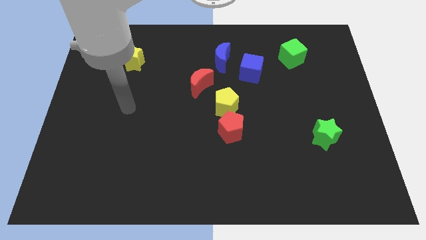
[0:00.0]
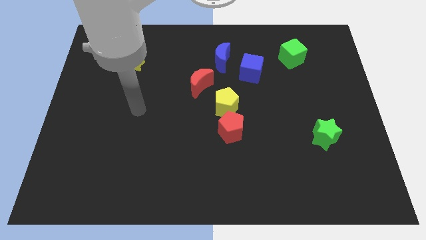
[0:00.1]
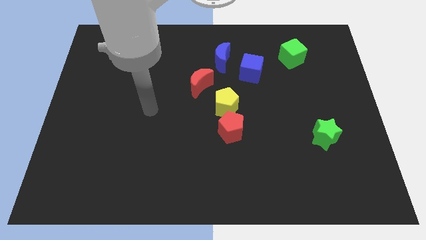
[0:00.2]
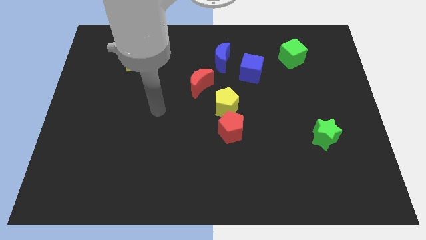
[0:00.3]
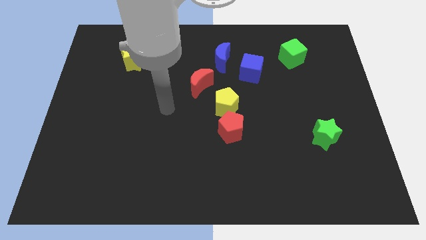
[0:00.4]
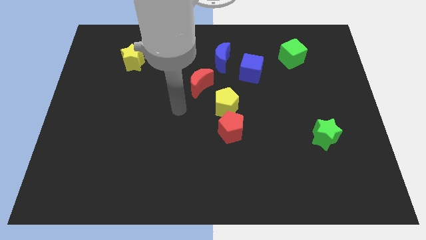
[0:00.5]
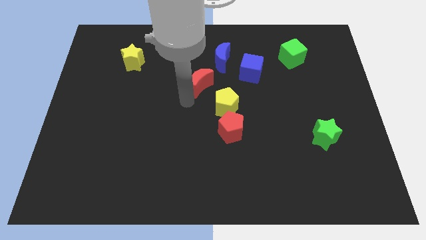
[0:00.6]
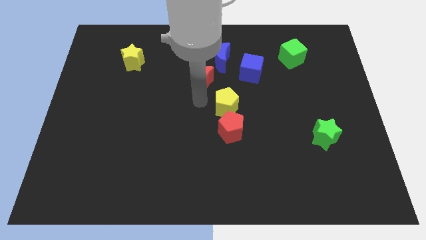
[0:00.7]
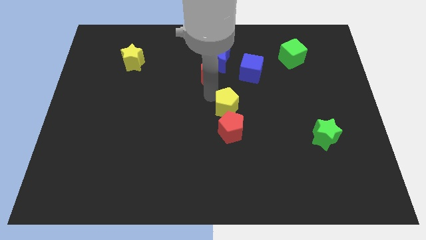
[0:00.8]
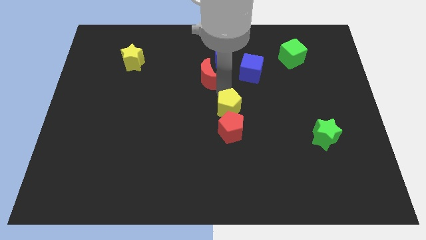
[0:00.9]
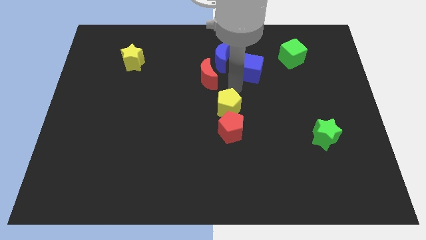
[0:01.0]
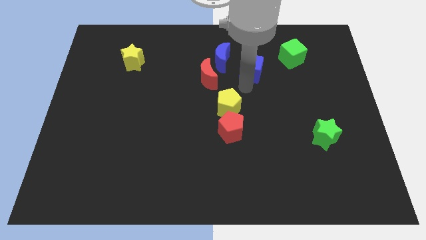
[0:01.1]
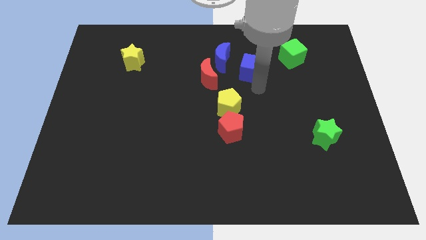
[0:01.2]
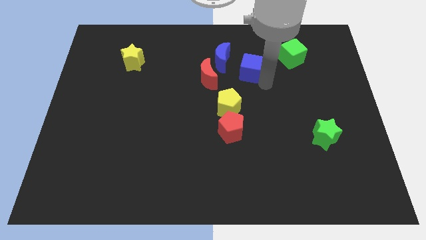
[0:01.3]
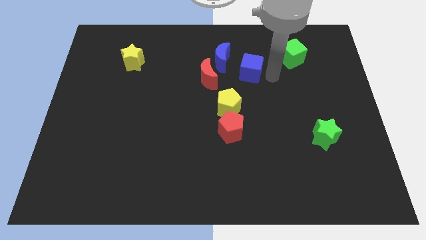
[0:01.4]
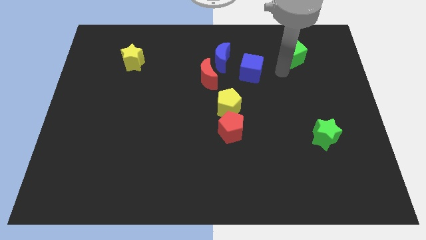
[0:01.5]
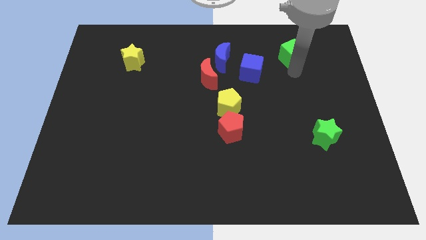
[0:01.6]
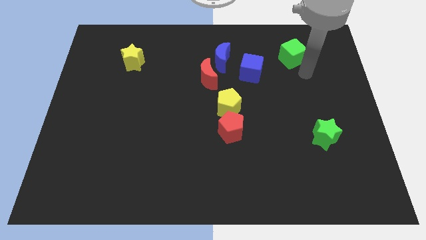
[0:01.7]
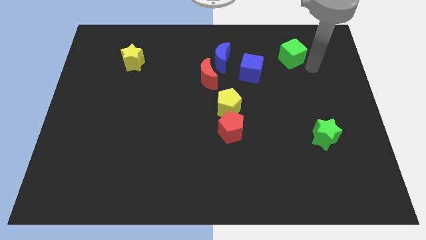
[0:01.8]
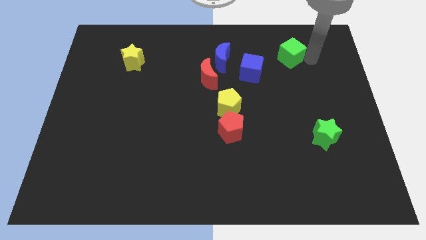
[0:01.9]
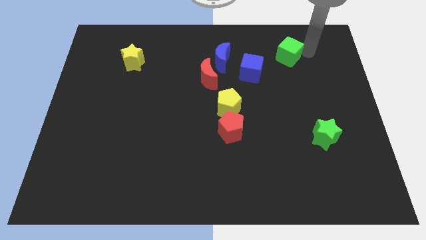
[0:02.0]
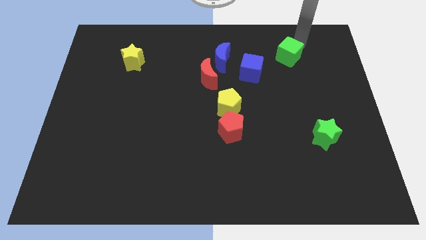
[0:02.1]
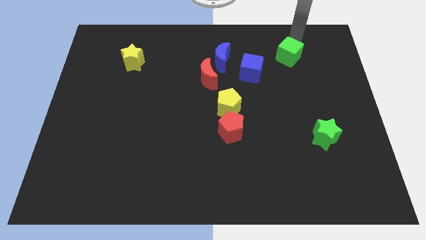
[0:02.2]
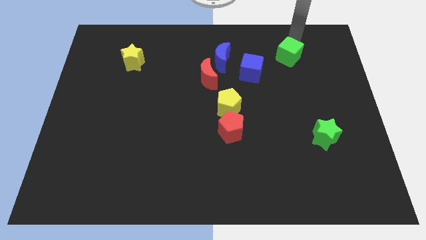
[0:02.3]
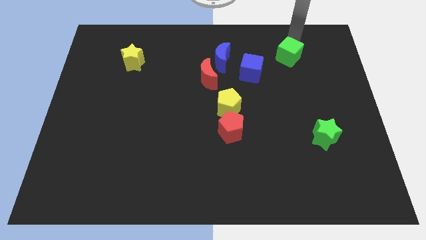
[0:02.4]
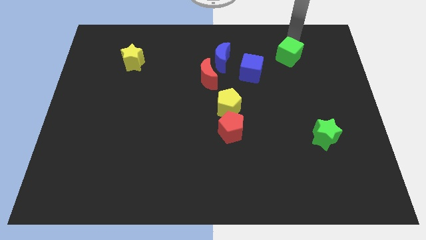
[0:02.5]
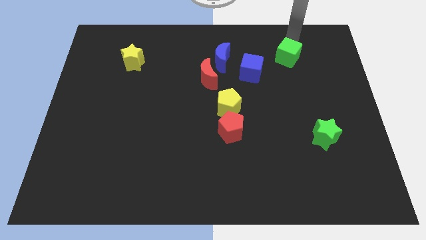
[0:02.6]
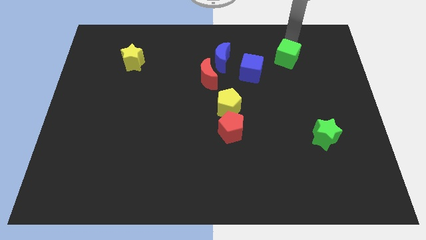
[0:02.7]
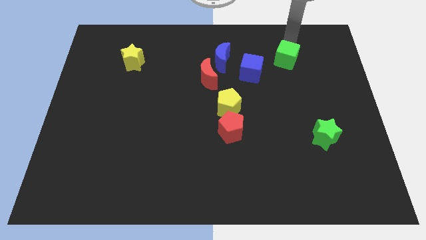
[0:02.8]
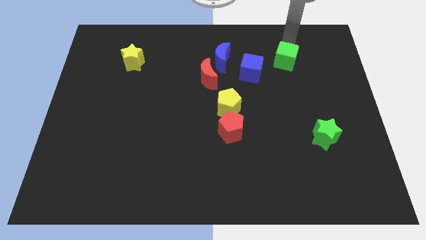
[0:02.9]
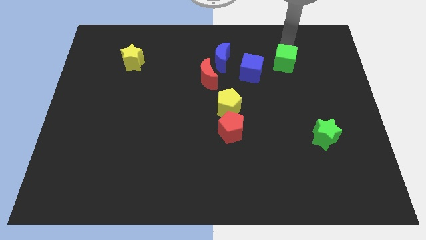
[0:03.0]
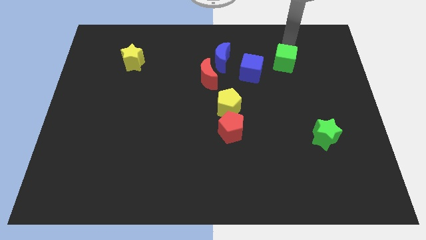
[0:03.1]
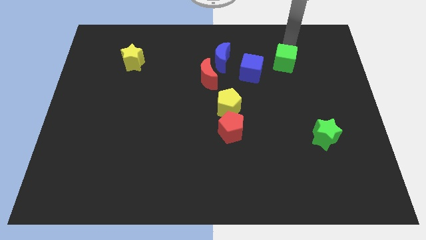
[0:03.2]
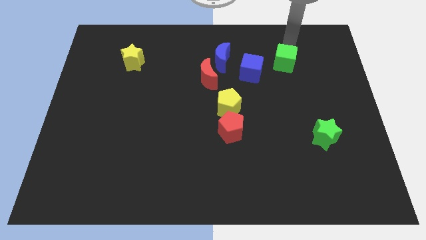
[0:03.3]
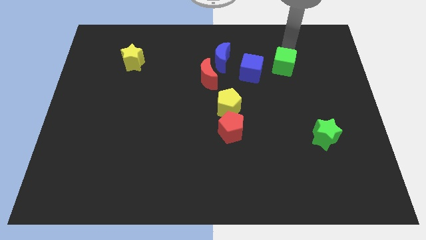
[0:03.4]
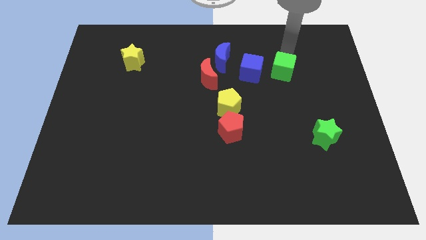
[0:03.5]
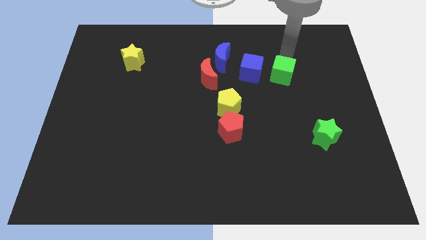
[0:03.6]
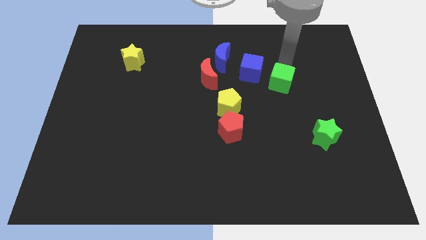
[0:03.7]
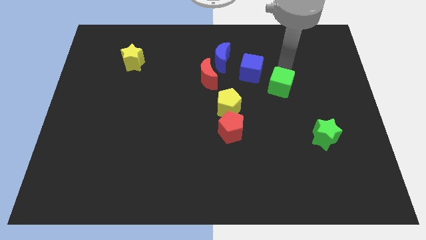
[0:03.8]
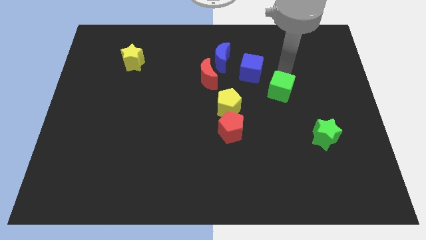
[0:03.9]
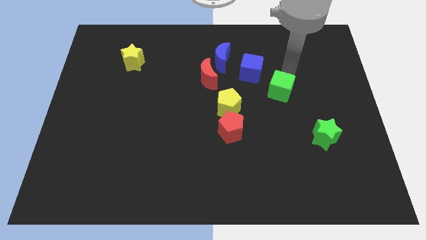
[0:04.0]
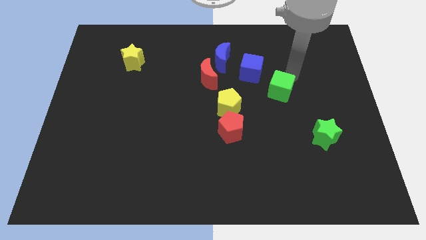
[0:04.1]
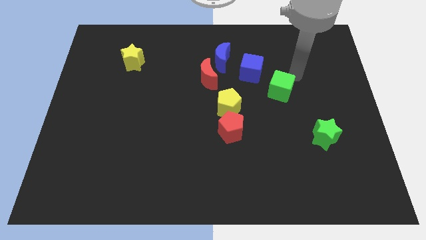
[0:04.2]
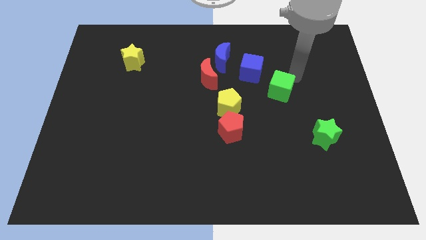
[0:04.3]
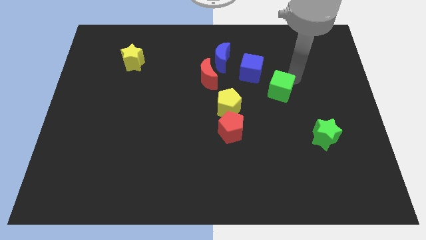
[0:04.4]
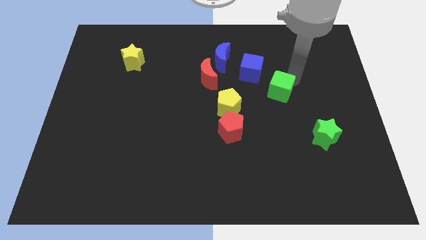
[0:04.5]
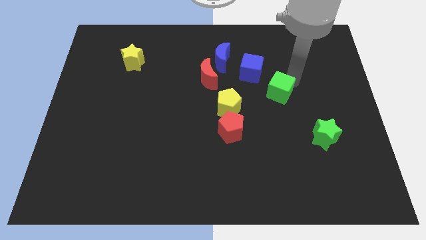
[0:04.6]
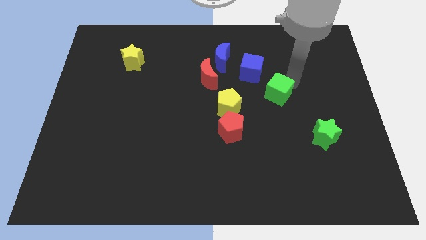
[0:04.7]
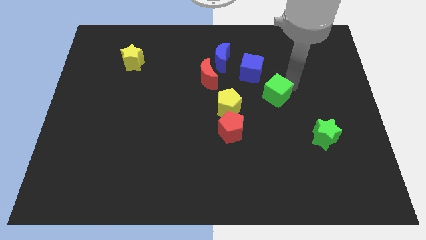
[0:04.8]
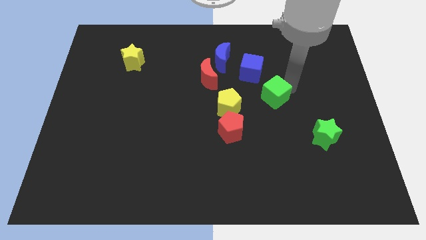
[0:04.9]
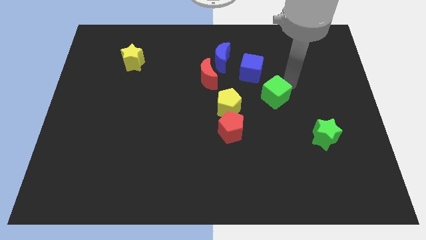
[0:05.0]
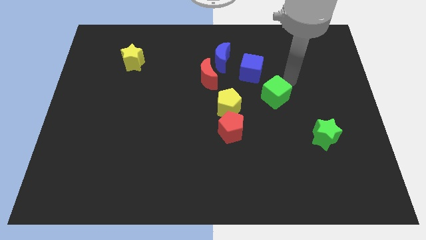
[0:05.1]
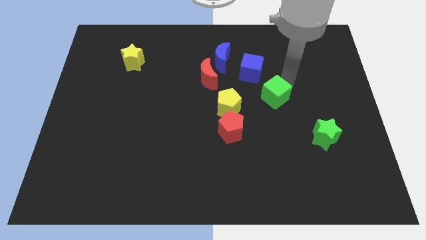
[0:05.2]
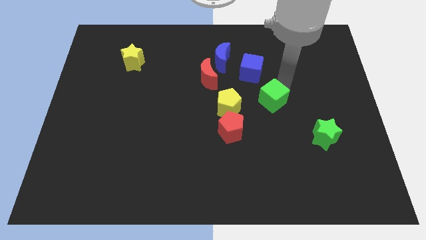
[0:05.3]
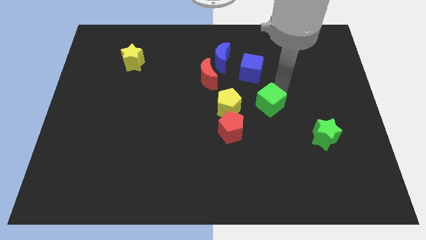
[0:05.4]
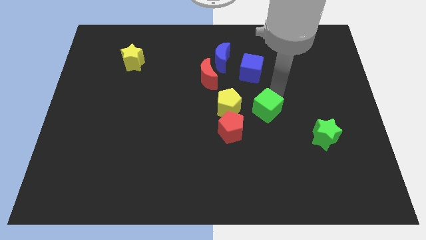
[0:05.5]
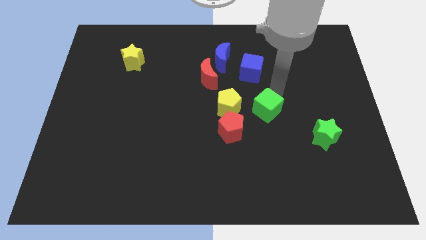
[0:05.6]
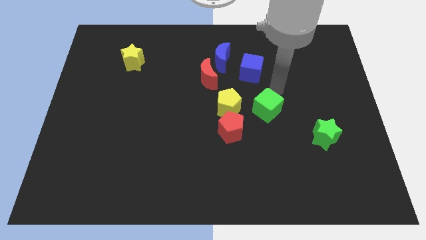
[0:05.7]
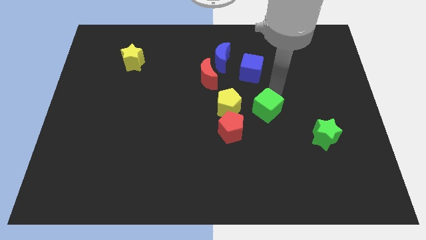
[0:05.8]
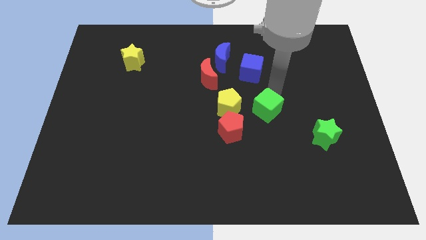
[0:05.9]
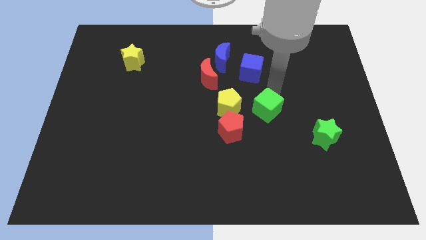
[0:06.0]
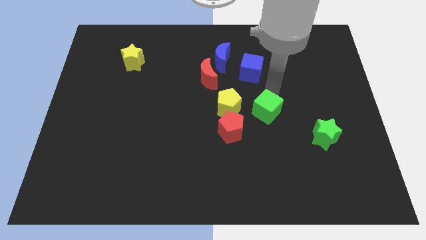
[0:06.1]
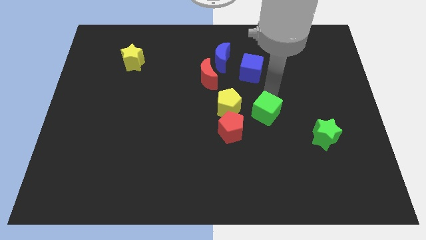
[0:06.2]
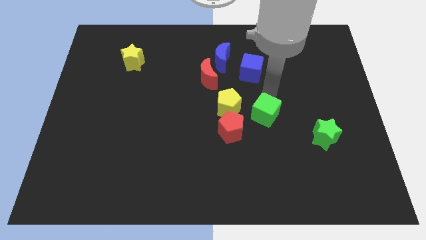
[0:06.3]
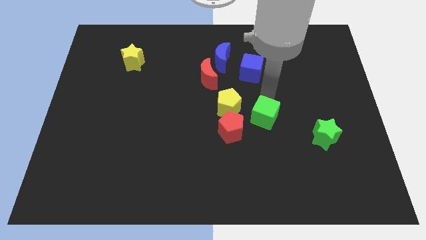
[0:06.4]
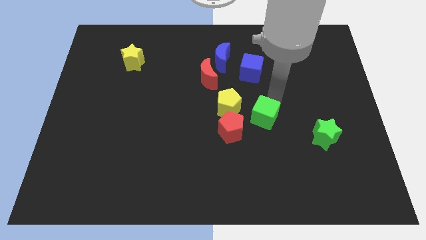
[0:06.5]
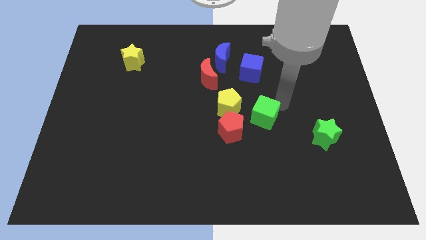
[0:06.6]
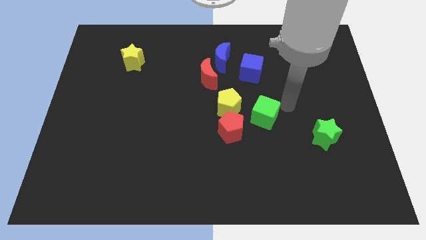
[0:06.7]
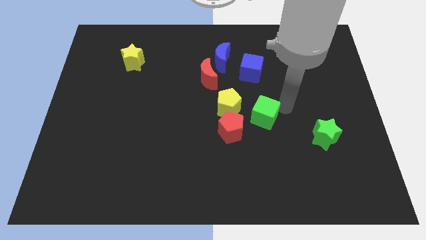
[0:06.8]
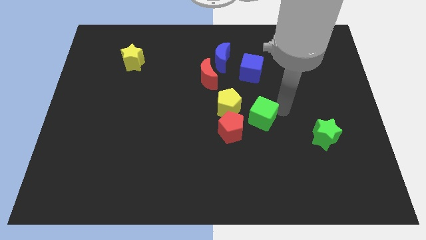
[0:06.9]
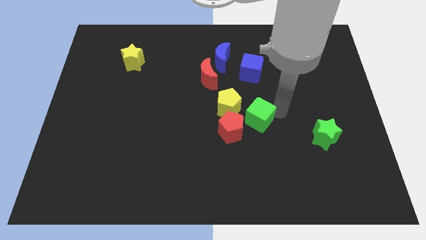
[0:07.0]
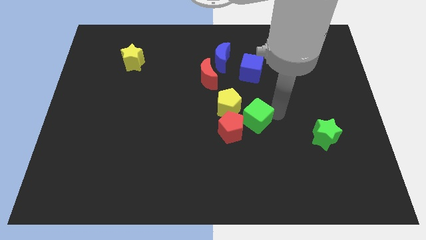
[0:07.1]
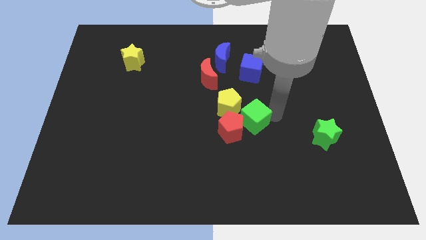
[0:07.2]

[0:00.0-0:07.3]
push the green cube to the red pentagon

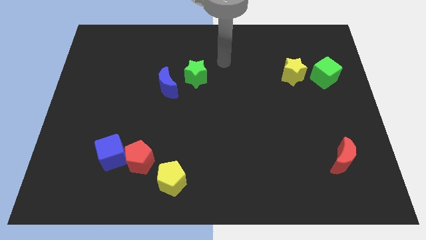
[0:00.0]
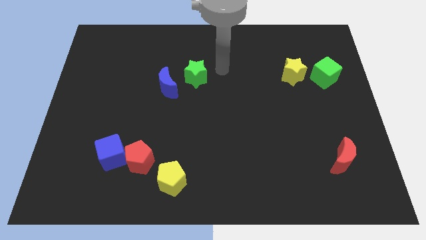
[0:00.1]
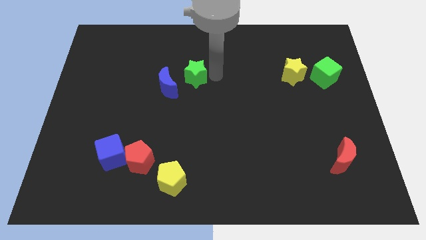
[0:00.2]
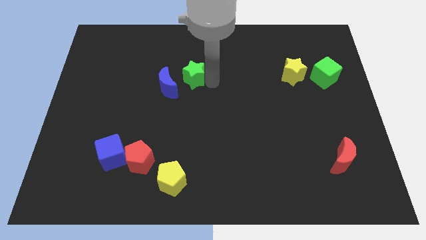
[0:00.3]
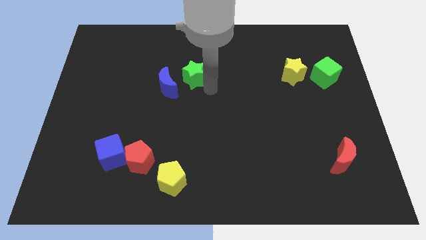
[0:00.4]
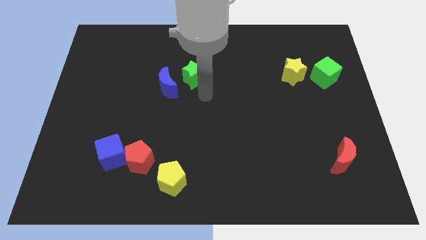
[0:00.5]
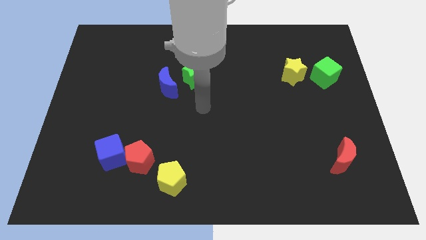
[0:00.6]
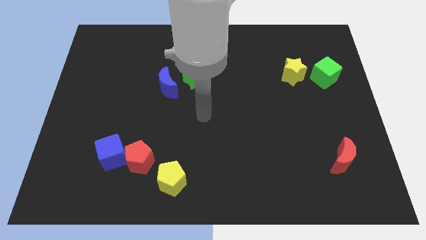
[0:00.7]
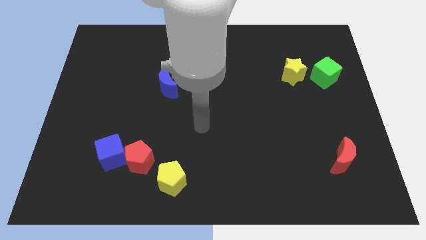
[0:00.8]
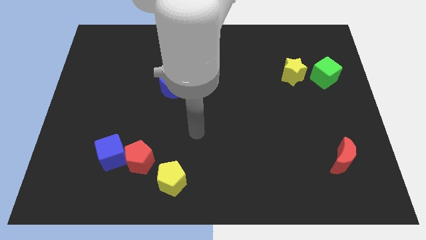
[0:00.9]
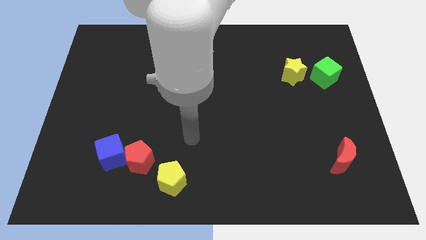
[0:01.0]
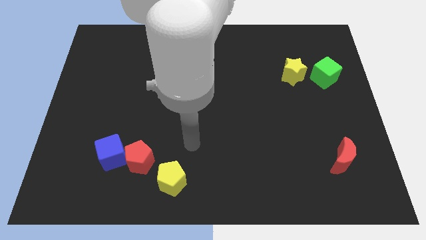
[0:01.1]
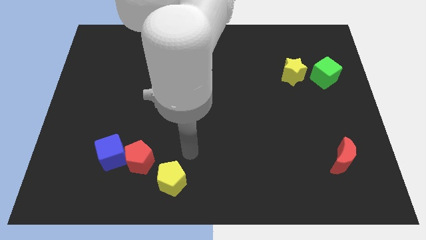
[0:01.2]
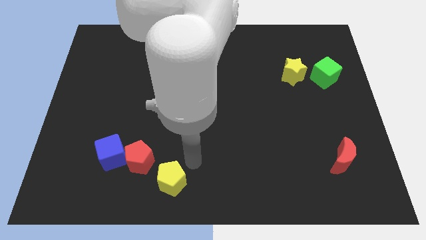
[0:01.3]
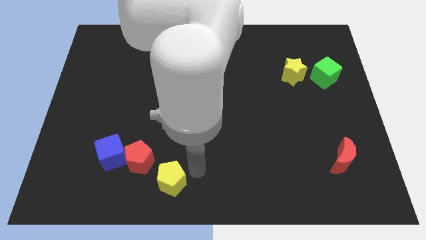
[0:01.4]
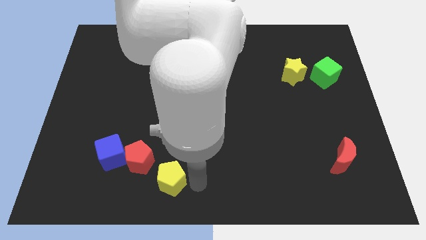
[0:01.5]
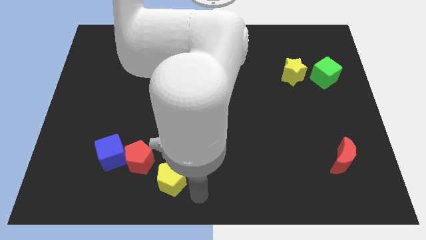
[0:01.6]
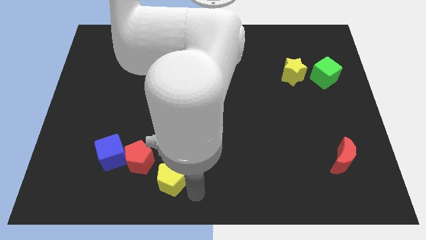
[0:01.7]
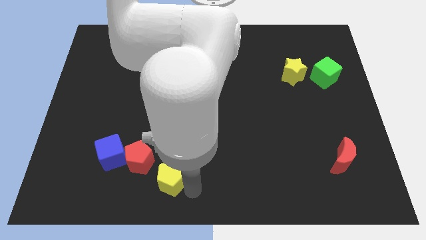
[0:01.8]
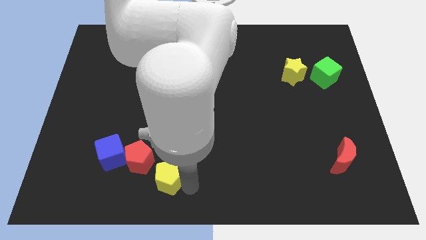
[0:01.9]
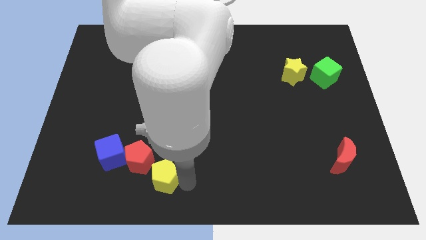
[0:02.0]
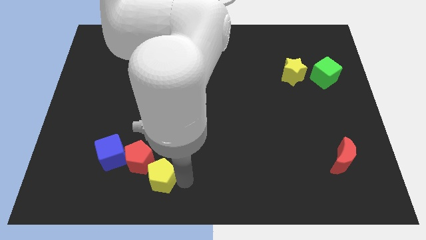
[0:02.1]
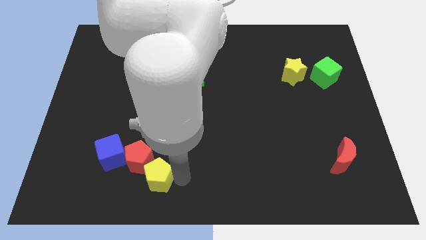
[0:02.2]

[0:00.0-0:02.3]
push the yellow pentagon to the red pentagon
